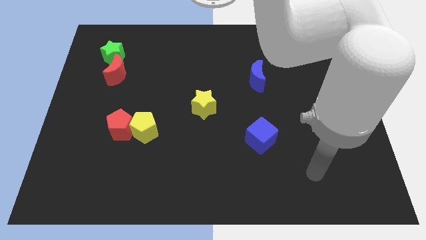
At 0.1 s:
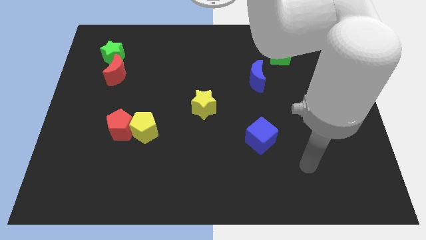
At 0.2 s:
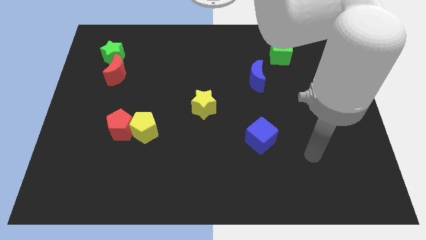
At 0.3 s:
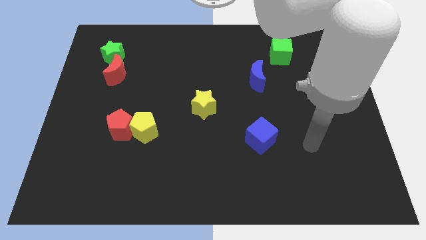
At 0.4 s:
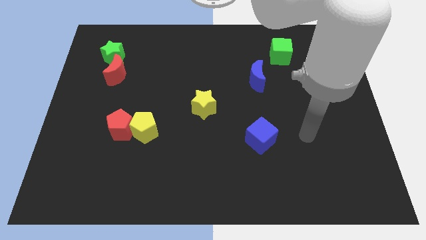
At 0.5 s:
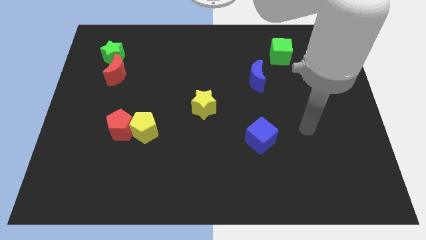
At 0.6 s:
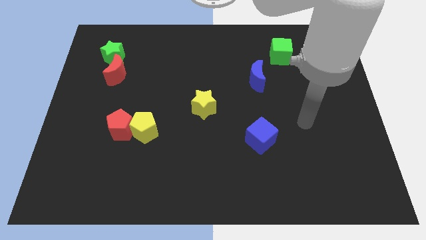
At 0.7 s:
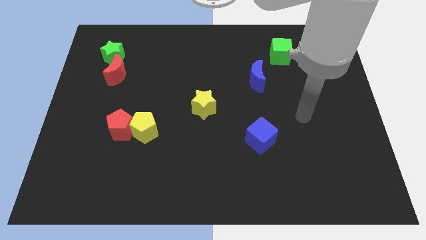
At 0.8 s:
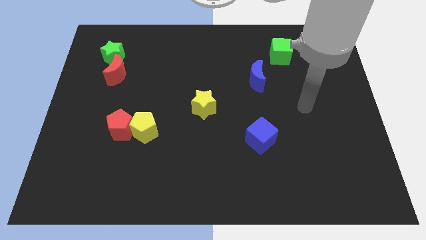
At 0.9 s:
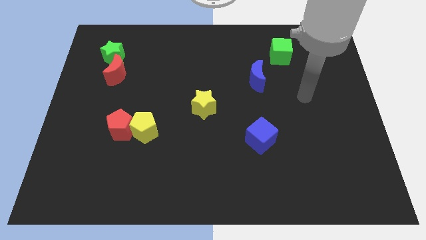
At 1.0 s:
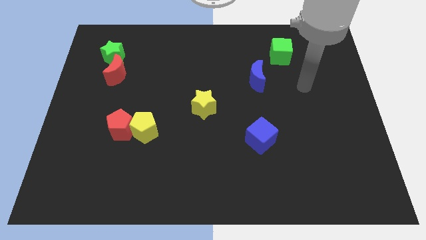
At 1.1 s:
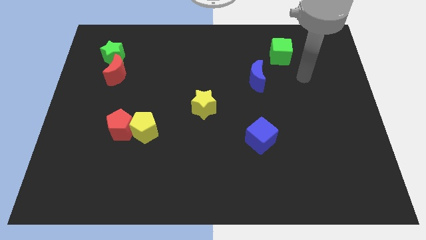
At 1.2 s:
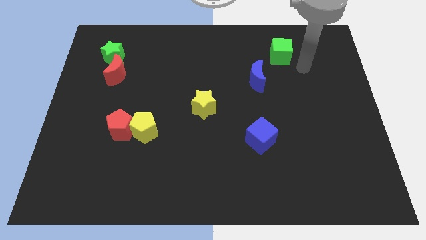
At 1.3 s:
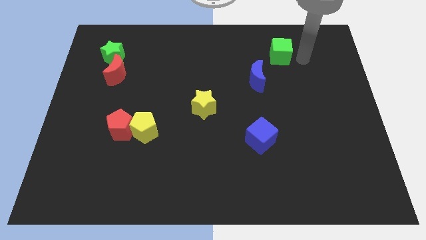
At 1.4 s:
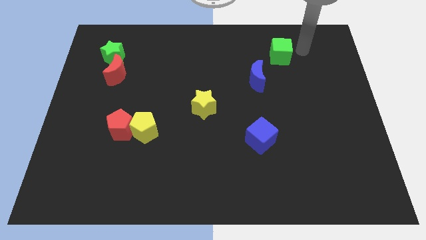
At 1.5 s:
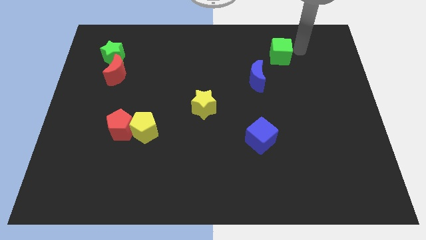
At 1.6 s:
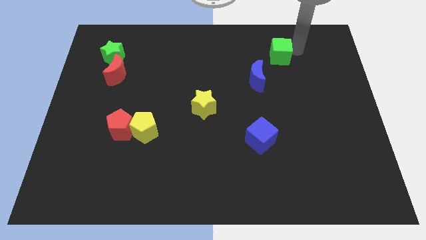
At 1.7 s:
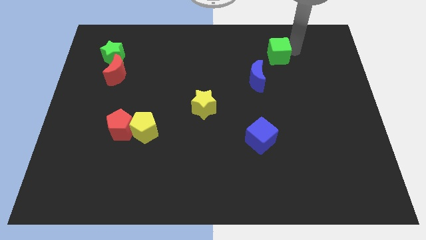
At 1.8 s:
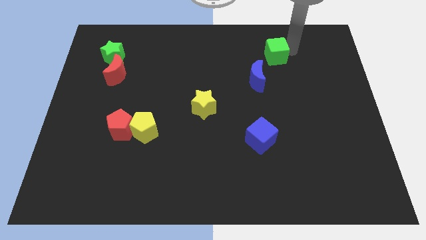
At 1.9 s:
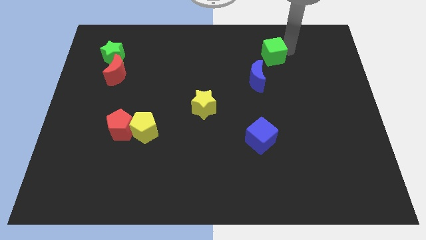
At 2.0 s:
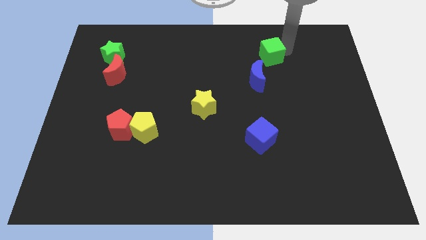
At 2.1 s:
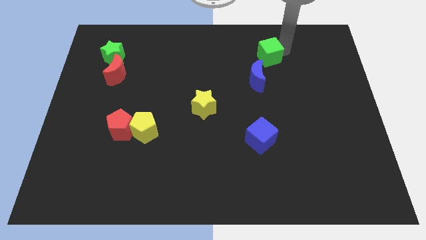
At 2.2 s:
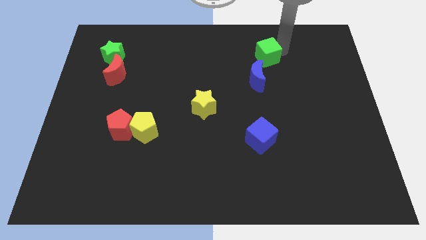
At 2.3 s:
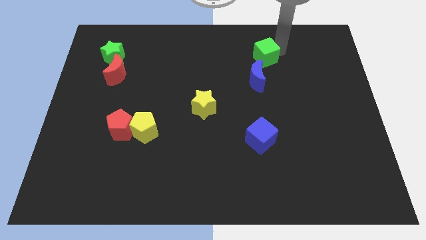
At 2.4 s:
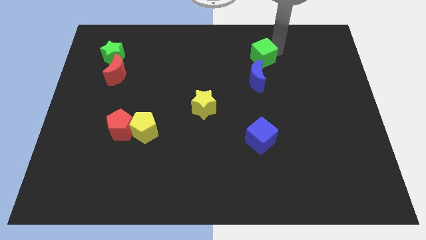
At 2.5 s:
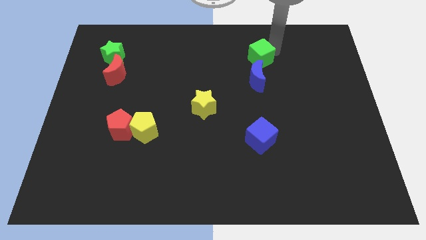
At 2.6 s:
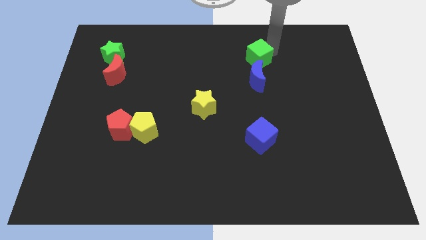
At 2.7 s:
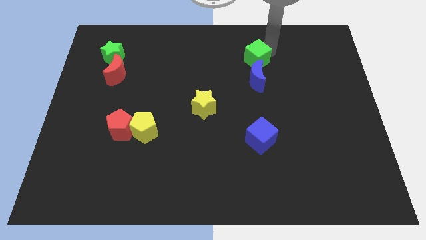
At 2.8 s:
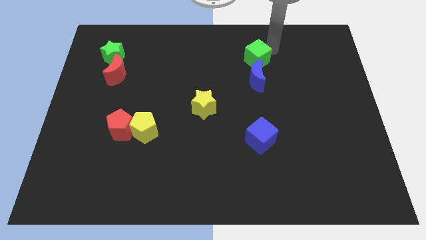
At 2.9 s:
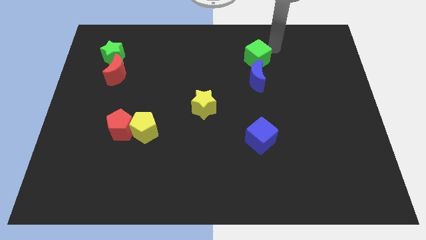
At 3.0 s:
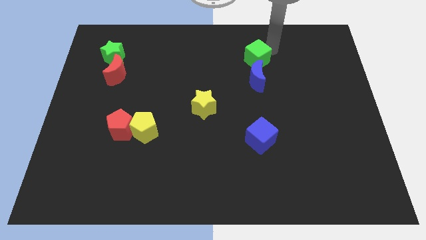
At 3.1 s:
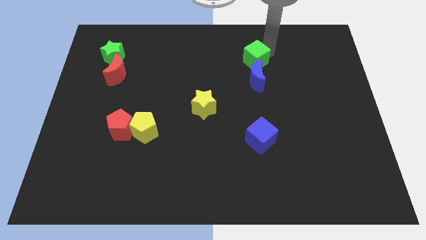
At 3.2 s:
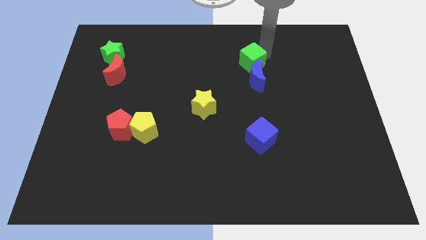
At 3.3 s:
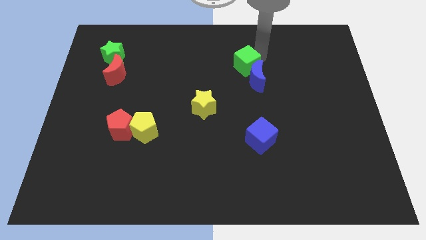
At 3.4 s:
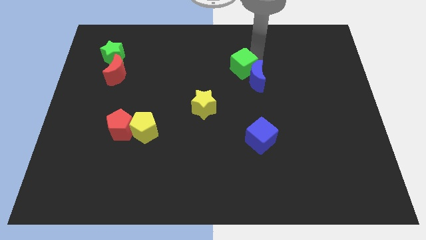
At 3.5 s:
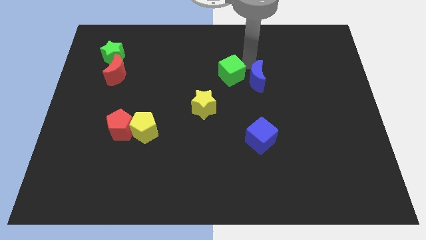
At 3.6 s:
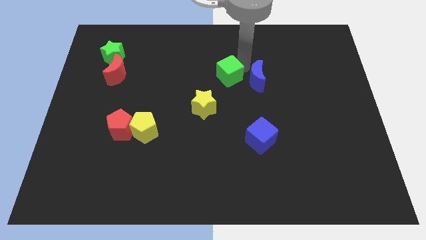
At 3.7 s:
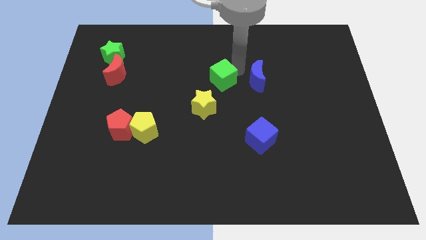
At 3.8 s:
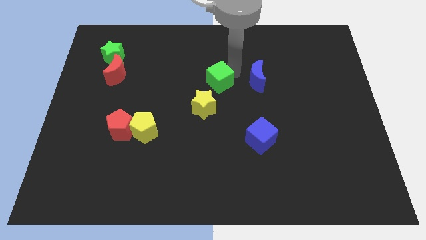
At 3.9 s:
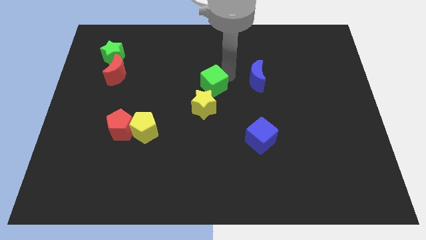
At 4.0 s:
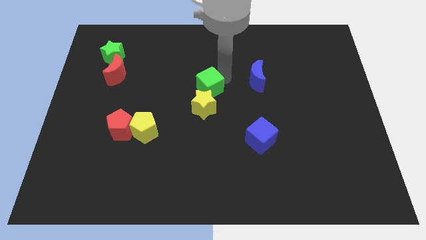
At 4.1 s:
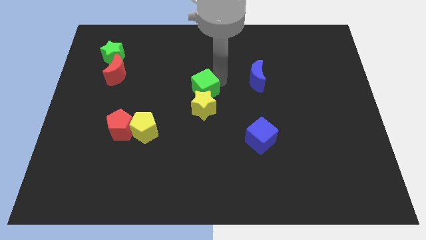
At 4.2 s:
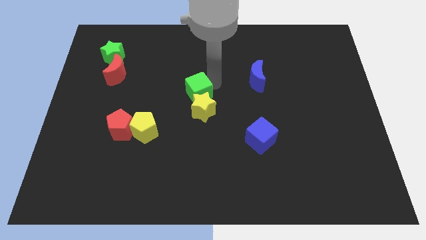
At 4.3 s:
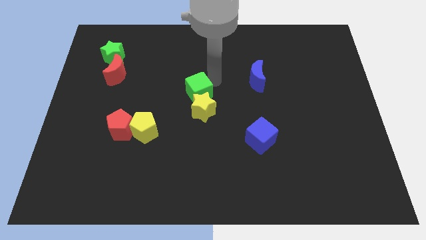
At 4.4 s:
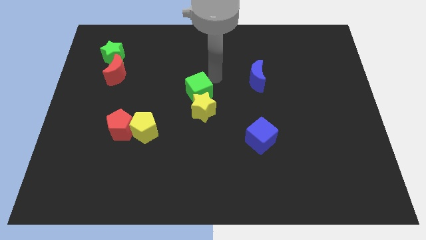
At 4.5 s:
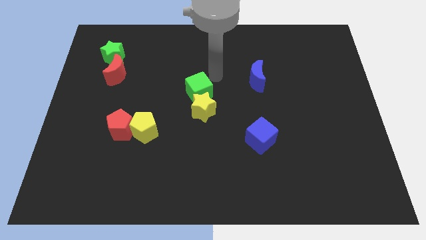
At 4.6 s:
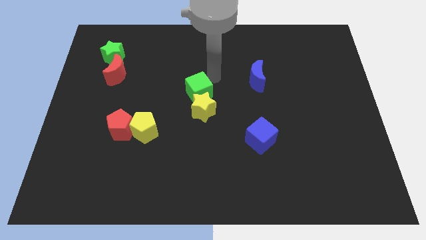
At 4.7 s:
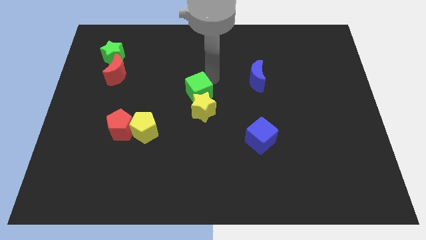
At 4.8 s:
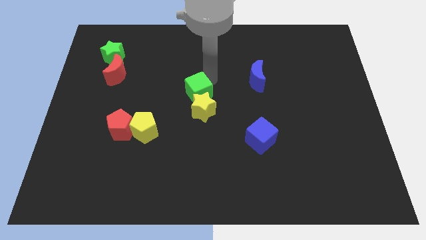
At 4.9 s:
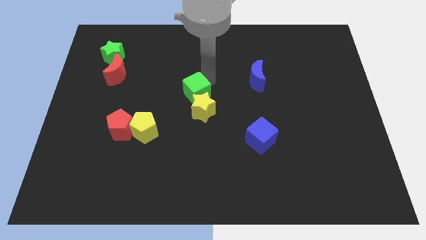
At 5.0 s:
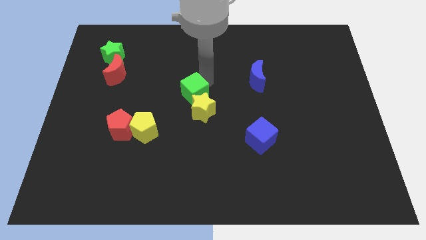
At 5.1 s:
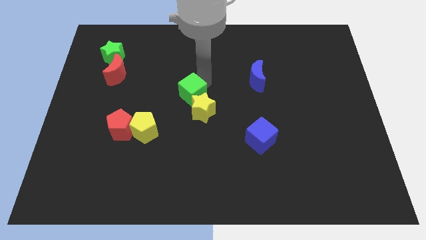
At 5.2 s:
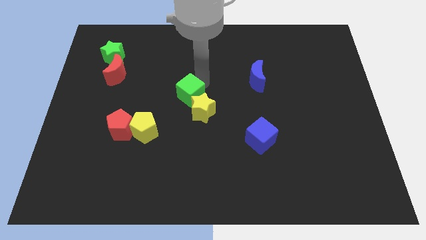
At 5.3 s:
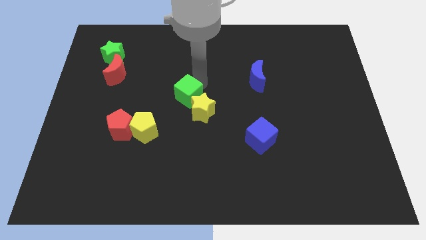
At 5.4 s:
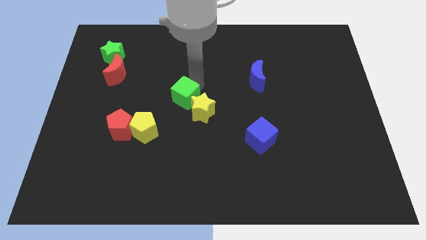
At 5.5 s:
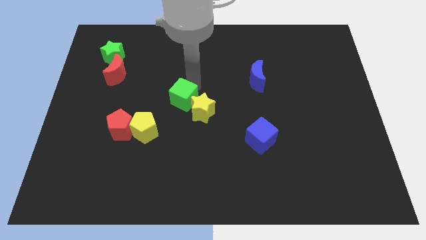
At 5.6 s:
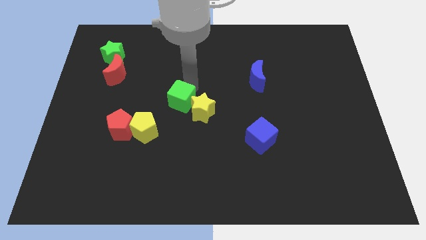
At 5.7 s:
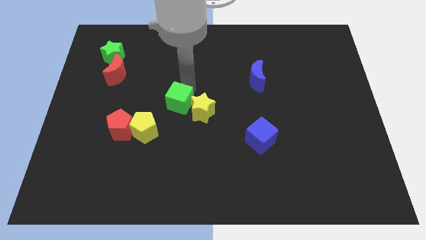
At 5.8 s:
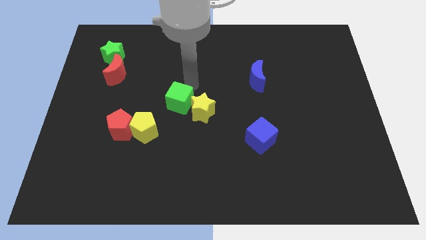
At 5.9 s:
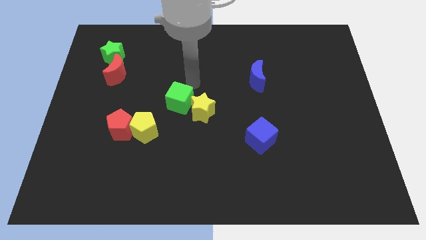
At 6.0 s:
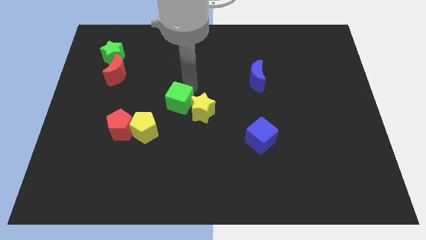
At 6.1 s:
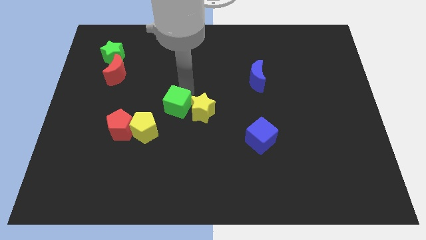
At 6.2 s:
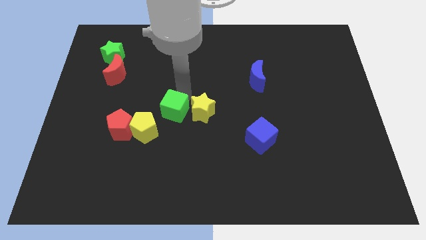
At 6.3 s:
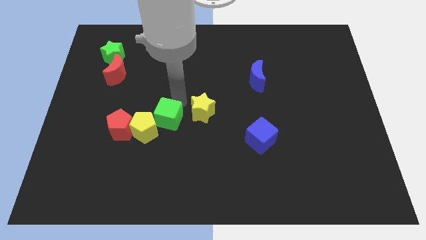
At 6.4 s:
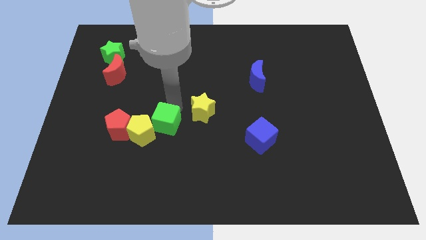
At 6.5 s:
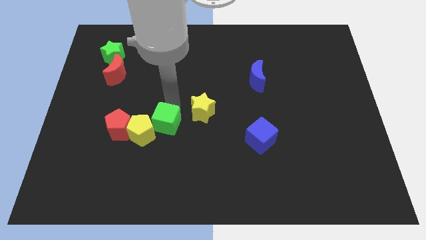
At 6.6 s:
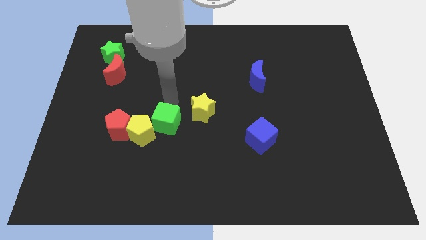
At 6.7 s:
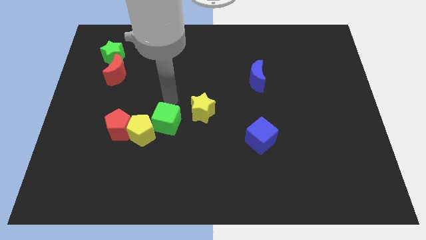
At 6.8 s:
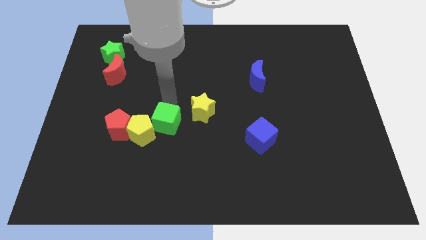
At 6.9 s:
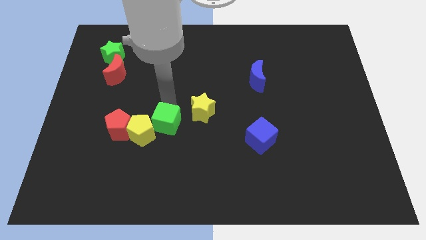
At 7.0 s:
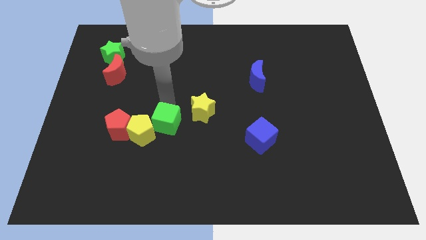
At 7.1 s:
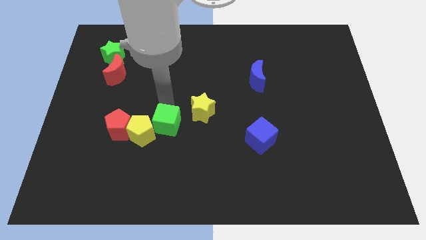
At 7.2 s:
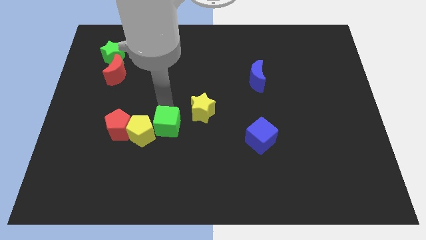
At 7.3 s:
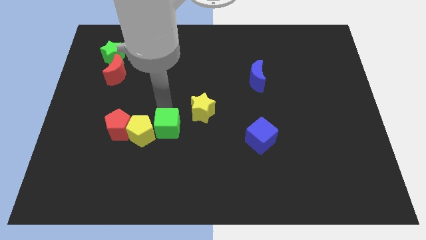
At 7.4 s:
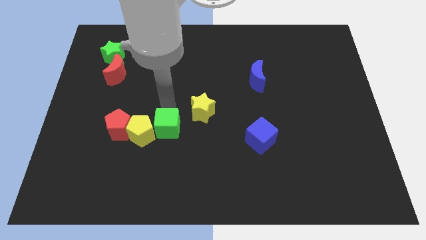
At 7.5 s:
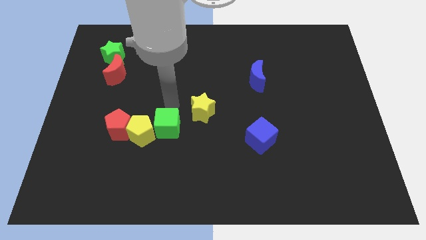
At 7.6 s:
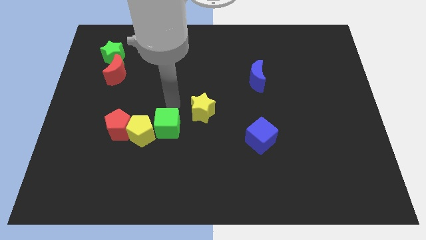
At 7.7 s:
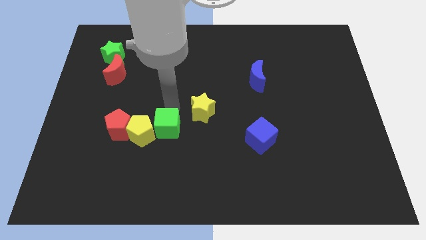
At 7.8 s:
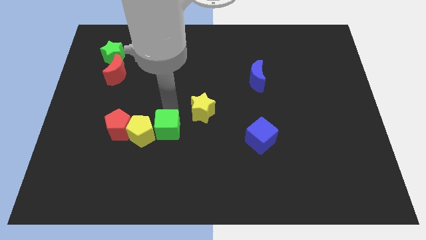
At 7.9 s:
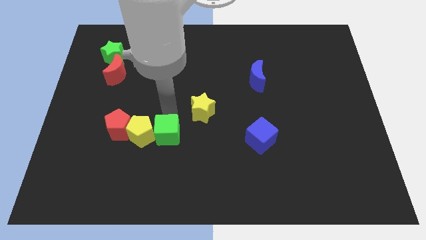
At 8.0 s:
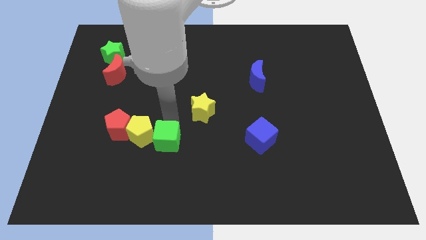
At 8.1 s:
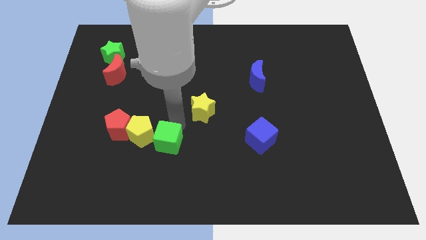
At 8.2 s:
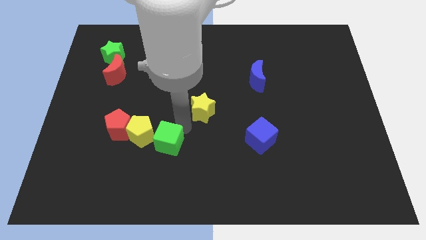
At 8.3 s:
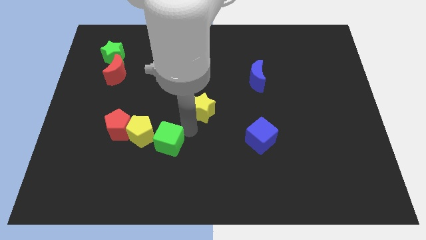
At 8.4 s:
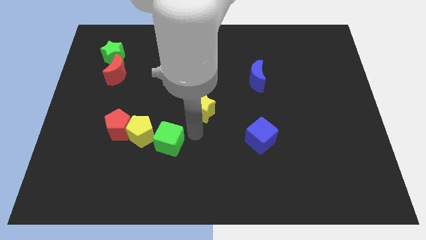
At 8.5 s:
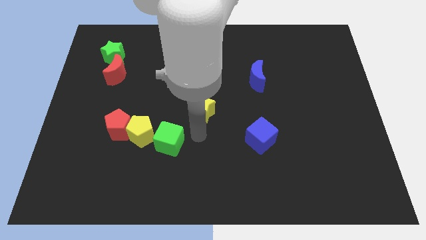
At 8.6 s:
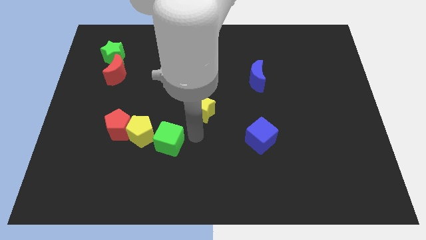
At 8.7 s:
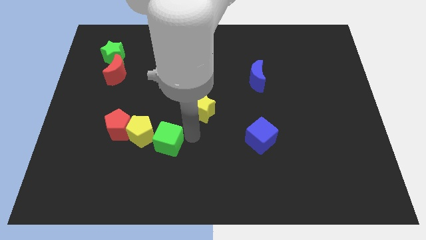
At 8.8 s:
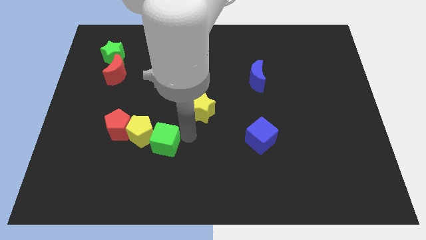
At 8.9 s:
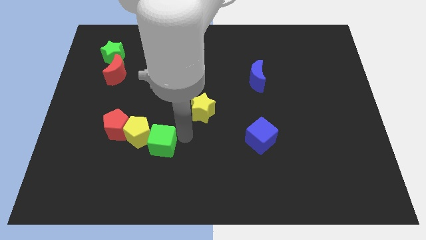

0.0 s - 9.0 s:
slide the green cube to the bottom right side of the red pentagon
